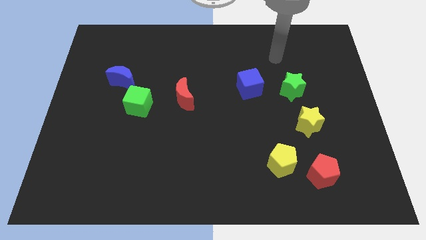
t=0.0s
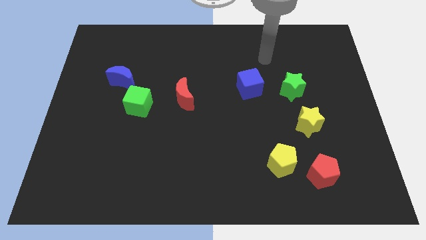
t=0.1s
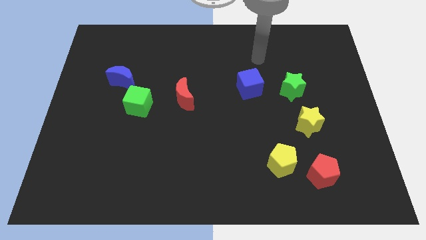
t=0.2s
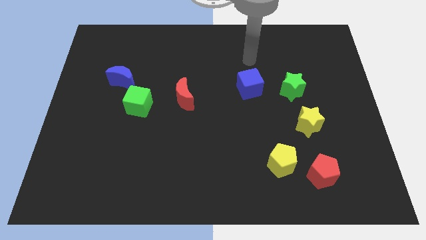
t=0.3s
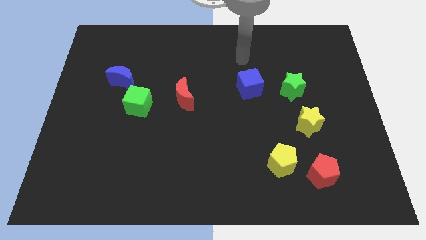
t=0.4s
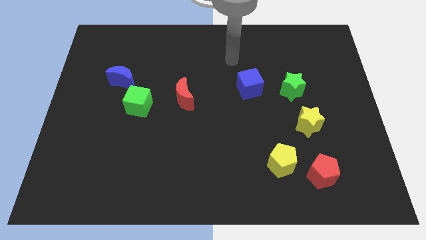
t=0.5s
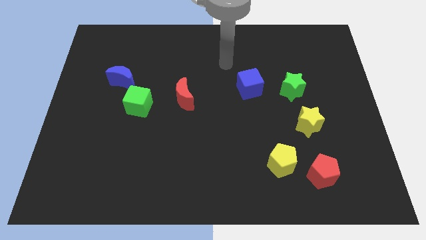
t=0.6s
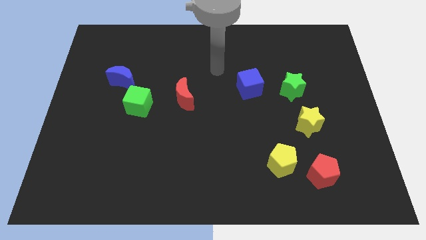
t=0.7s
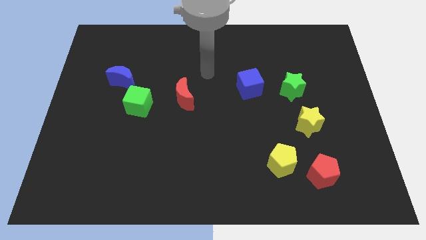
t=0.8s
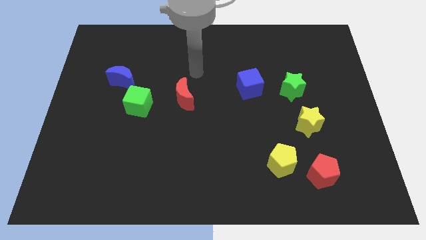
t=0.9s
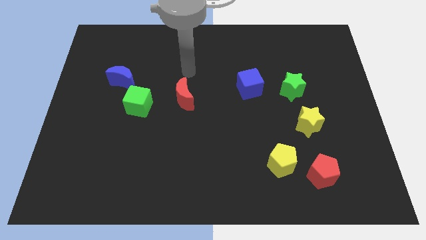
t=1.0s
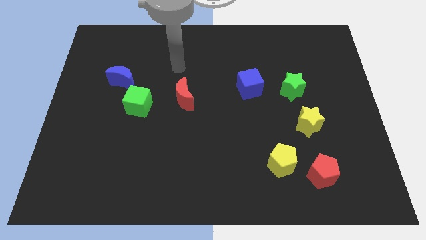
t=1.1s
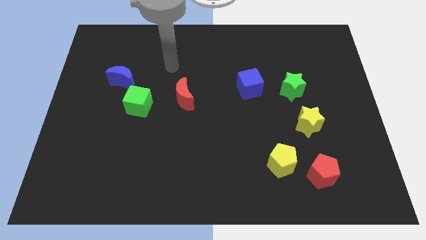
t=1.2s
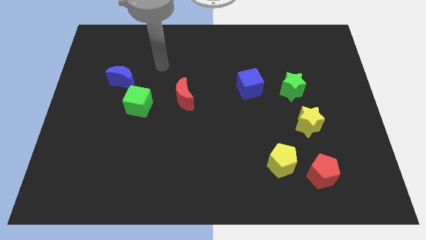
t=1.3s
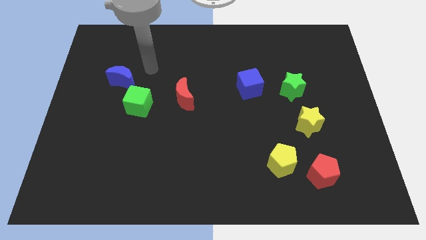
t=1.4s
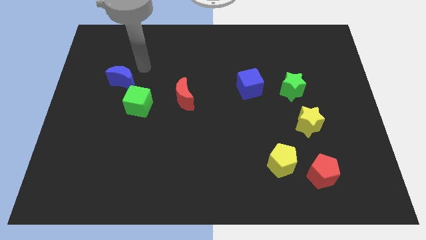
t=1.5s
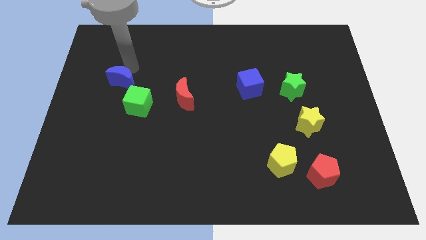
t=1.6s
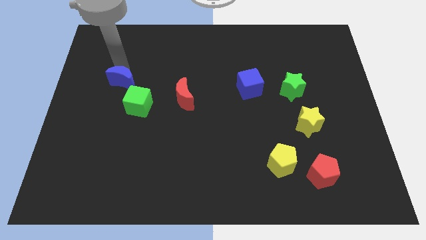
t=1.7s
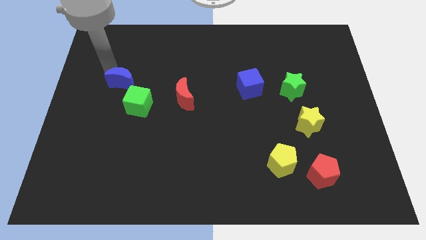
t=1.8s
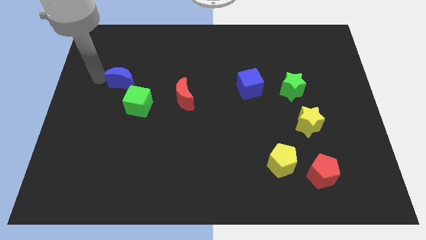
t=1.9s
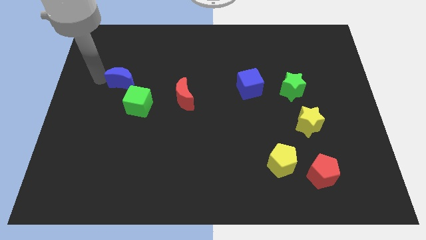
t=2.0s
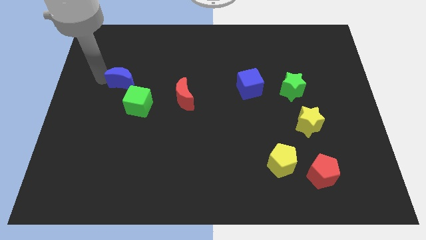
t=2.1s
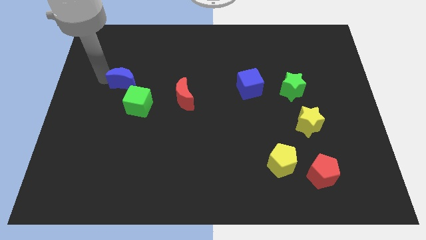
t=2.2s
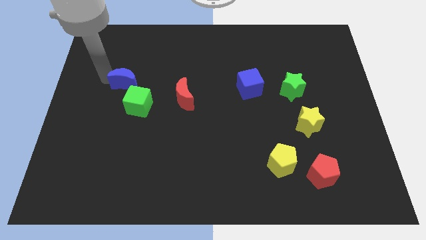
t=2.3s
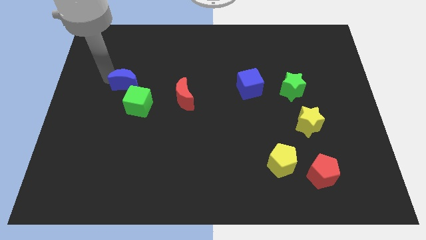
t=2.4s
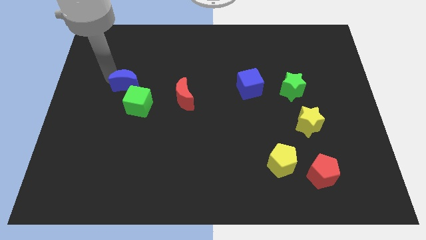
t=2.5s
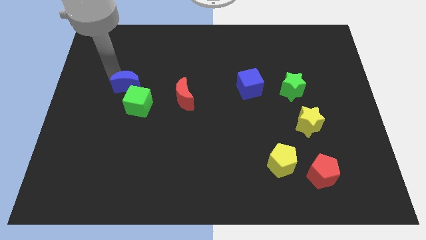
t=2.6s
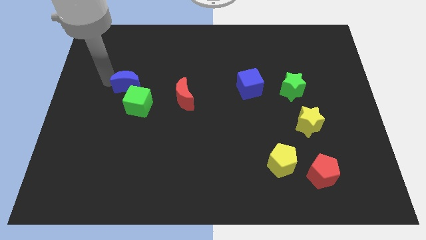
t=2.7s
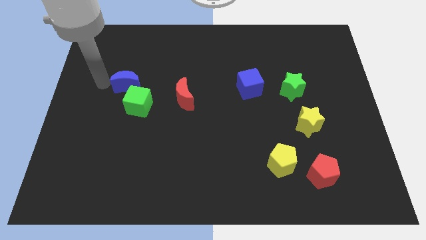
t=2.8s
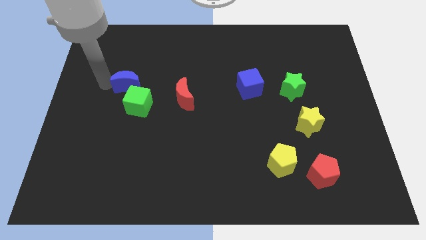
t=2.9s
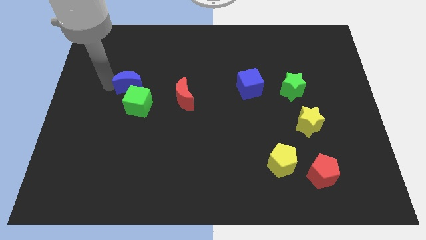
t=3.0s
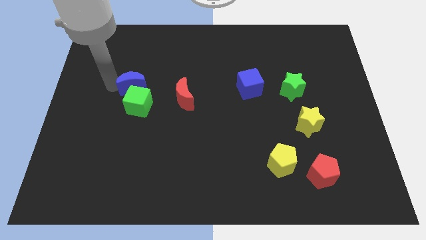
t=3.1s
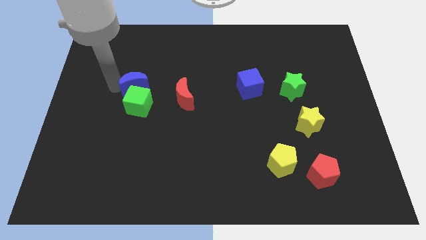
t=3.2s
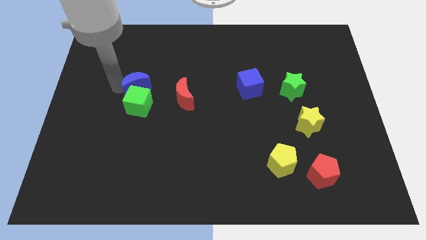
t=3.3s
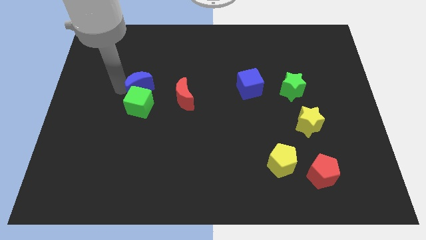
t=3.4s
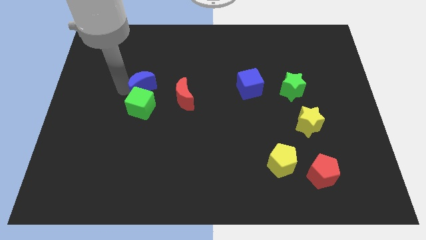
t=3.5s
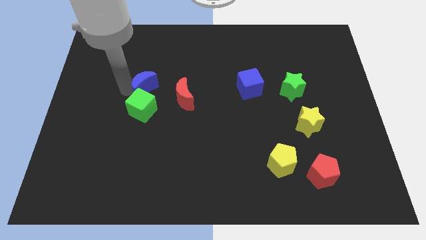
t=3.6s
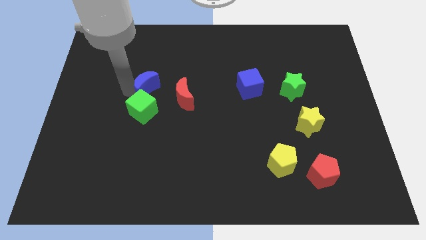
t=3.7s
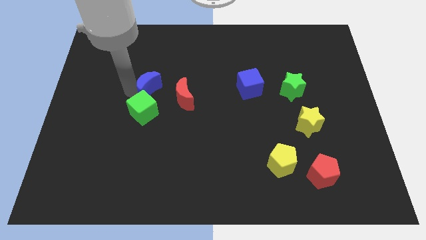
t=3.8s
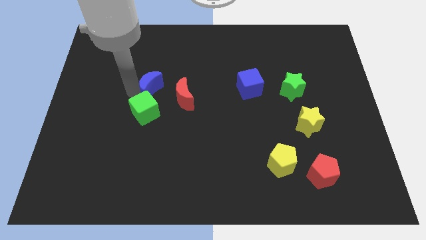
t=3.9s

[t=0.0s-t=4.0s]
push the blue moon to the right slightly

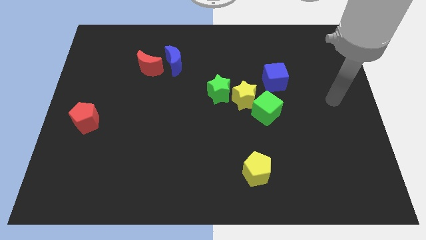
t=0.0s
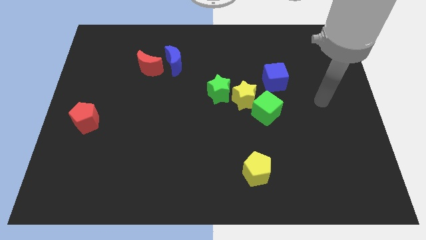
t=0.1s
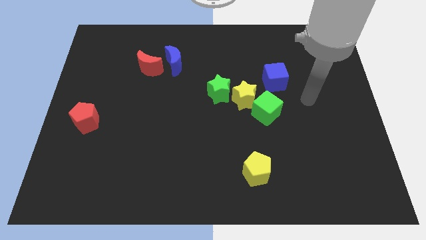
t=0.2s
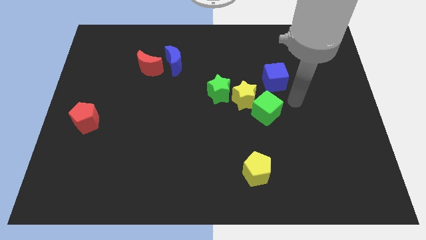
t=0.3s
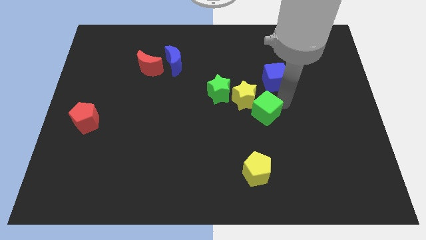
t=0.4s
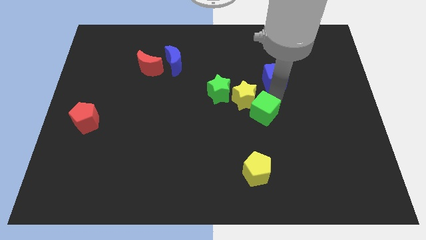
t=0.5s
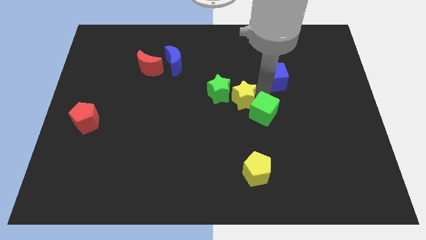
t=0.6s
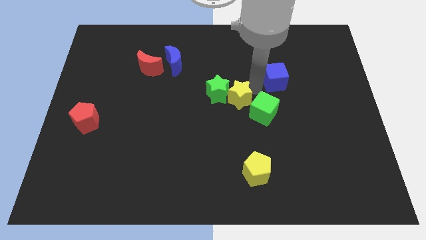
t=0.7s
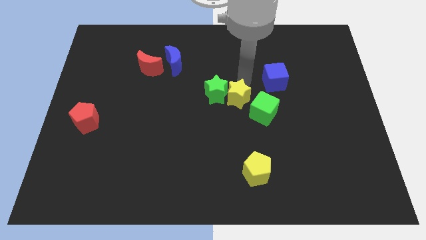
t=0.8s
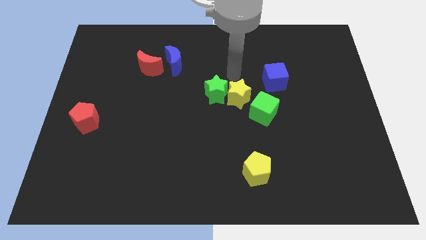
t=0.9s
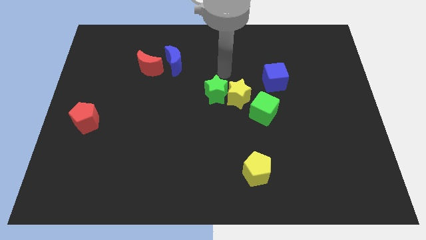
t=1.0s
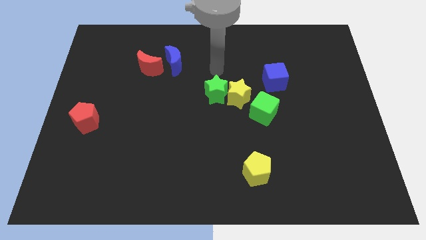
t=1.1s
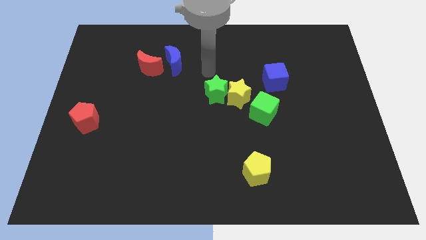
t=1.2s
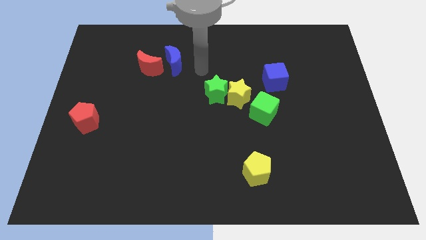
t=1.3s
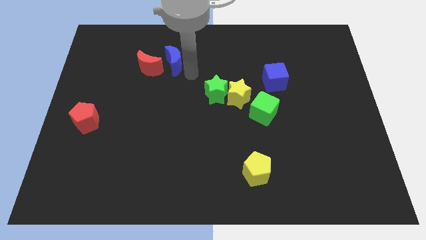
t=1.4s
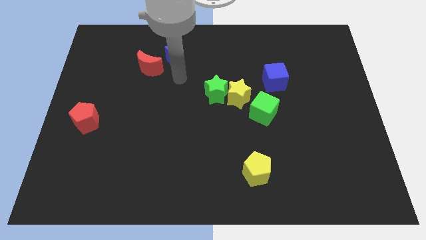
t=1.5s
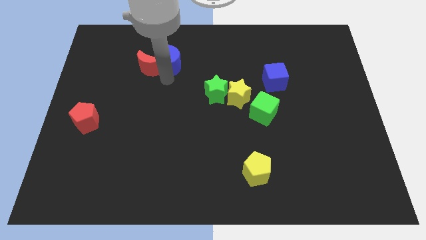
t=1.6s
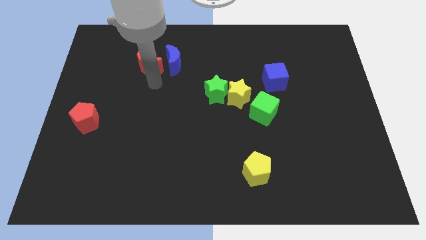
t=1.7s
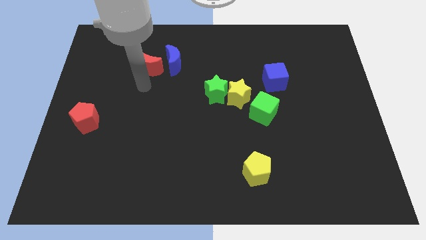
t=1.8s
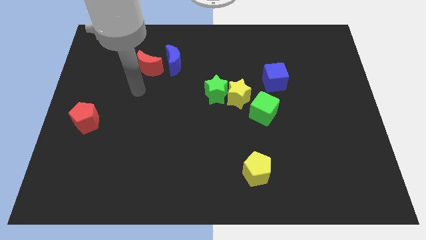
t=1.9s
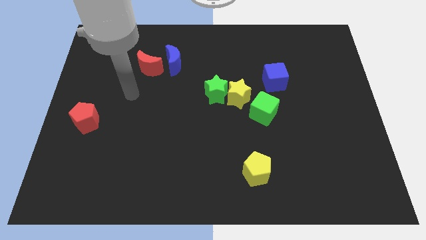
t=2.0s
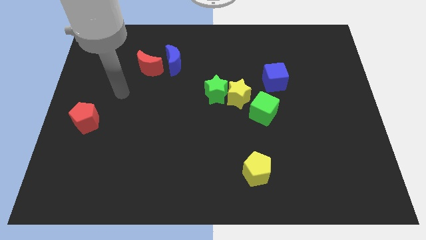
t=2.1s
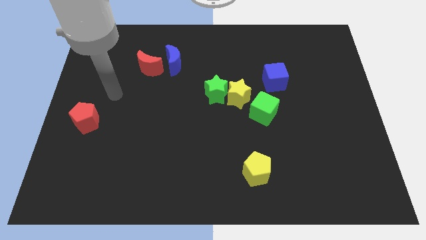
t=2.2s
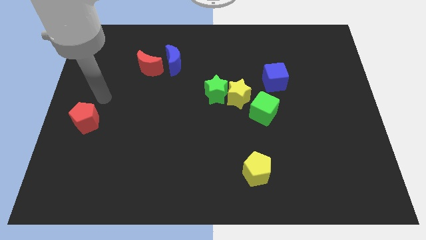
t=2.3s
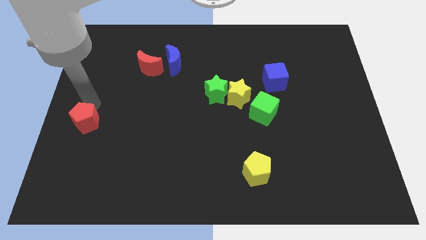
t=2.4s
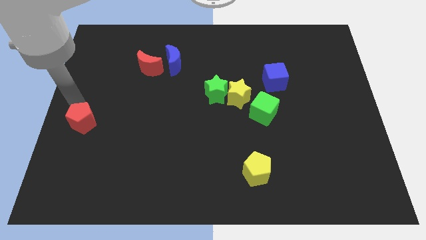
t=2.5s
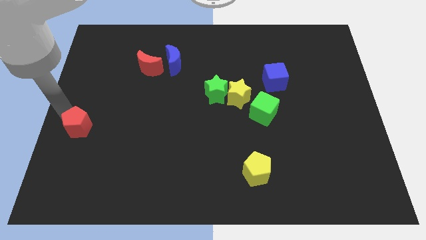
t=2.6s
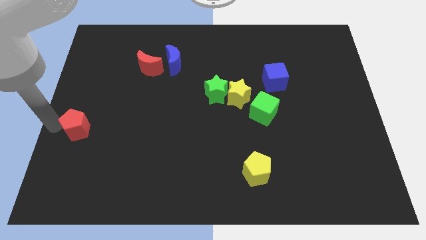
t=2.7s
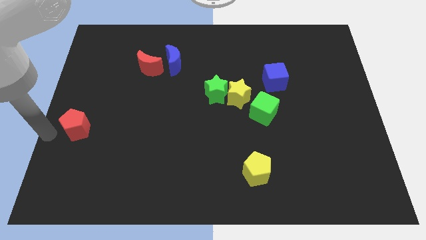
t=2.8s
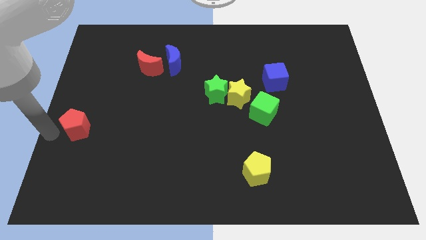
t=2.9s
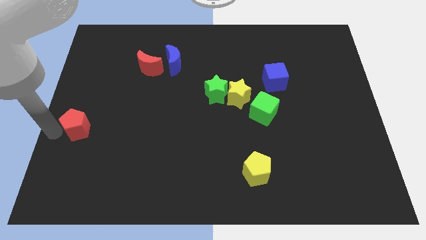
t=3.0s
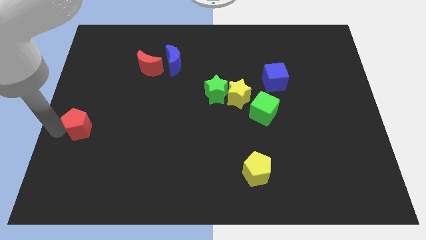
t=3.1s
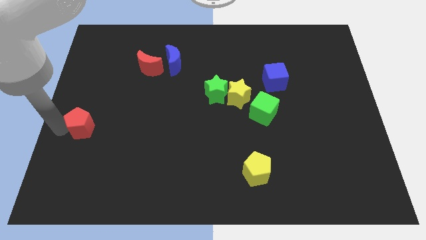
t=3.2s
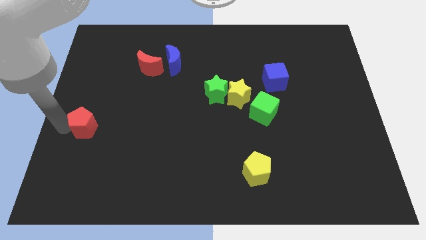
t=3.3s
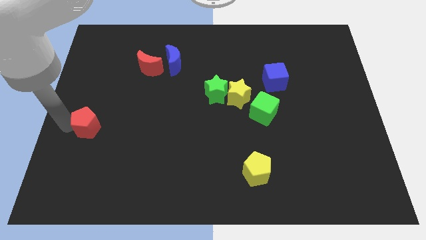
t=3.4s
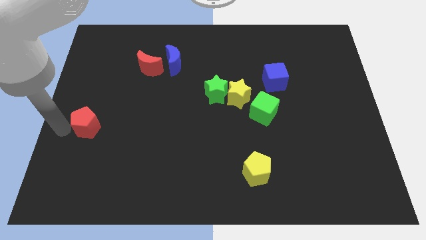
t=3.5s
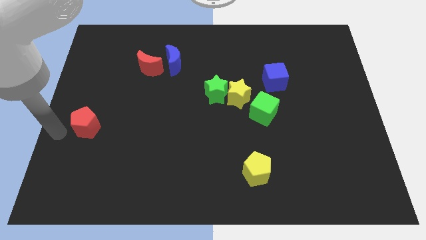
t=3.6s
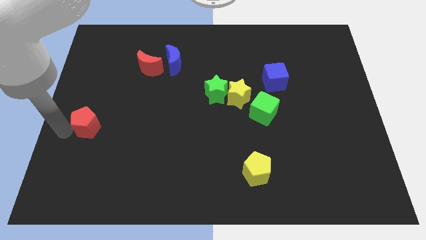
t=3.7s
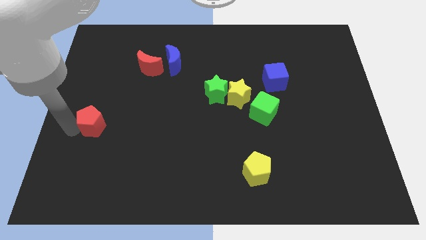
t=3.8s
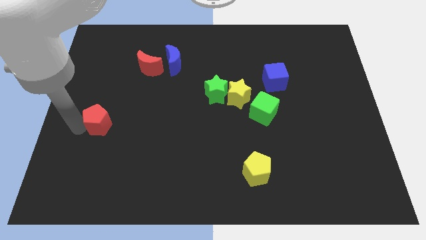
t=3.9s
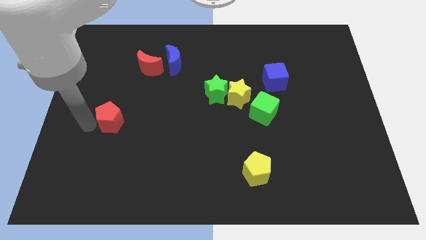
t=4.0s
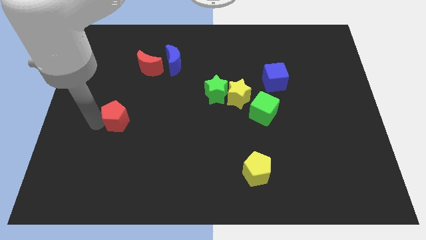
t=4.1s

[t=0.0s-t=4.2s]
slightly move the red pentagon to the right
